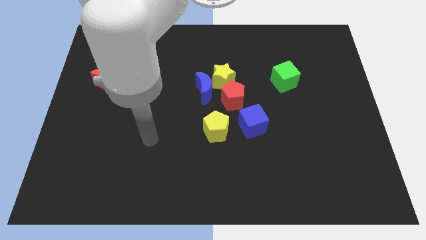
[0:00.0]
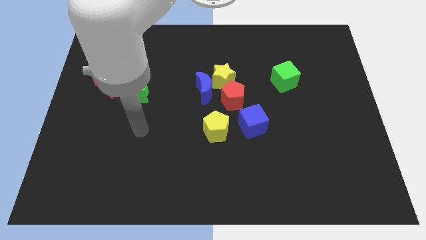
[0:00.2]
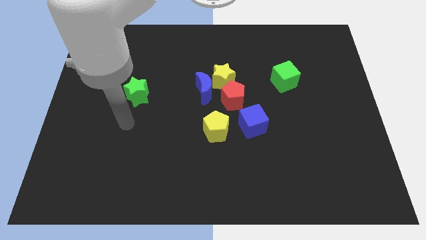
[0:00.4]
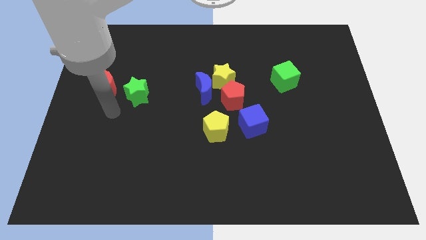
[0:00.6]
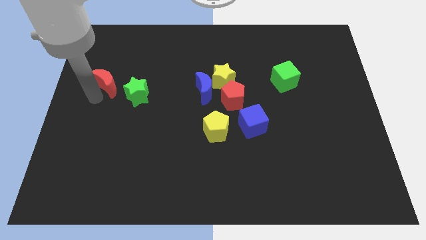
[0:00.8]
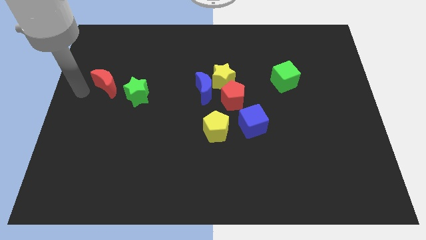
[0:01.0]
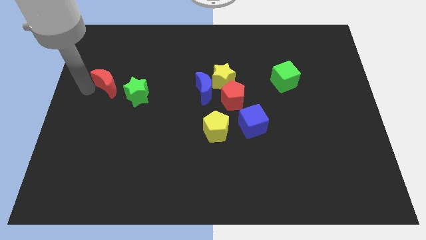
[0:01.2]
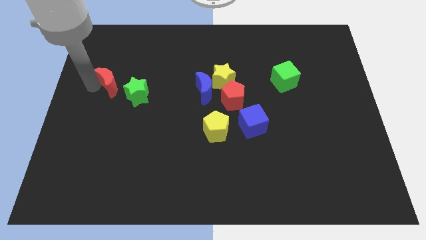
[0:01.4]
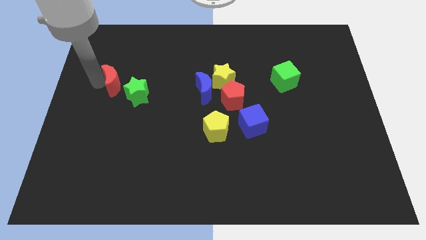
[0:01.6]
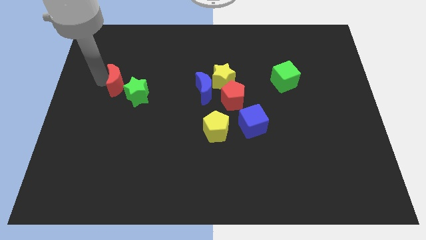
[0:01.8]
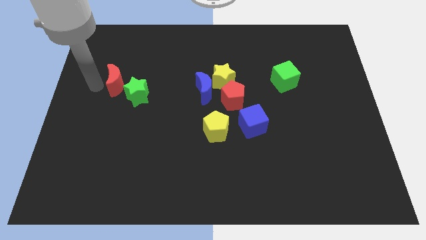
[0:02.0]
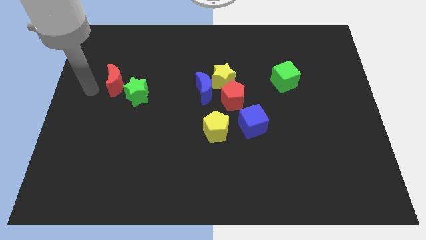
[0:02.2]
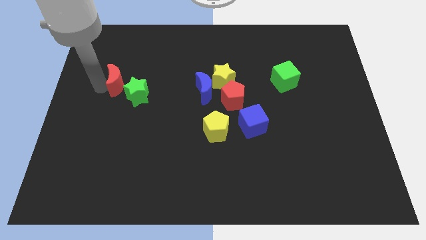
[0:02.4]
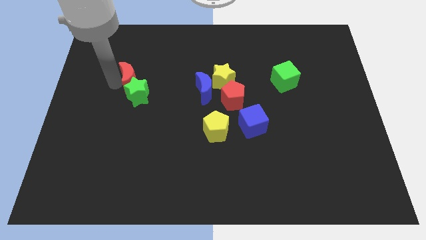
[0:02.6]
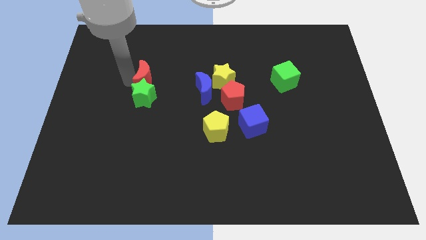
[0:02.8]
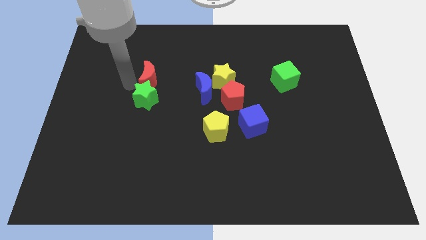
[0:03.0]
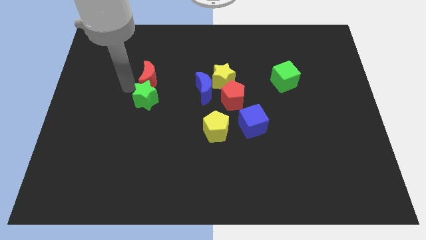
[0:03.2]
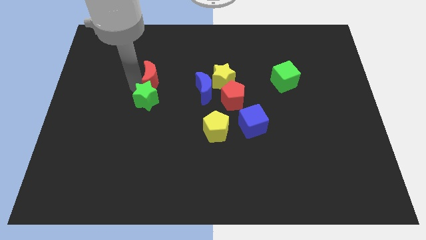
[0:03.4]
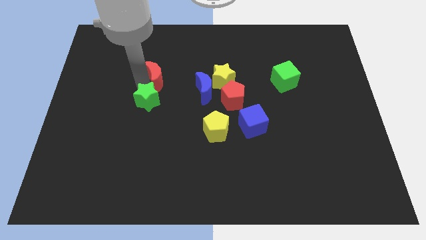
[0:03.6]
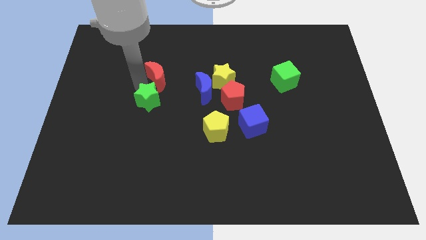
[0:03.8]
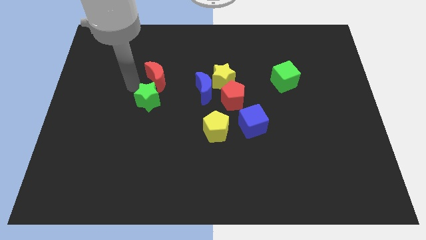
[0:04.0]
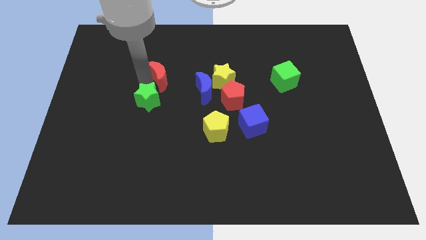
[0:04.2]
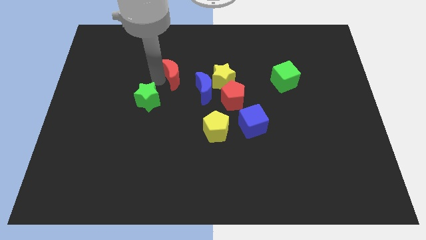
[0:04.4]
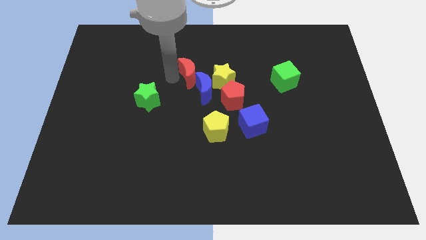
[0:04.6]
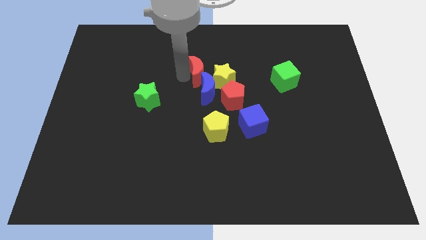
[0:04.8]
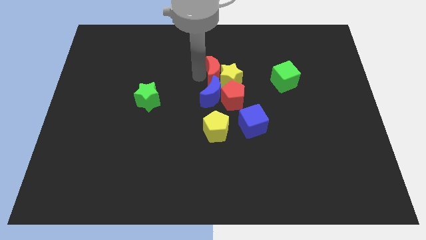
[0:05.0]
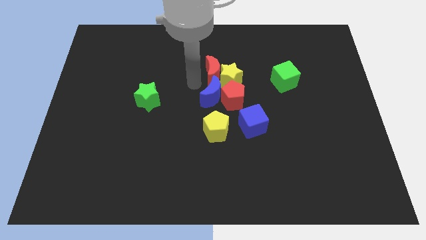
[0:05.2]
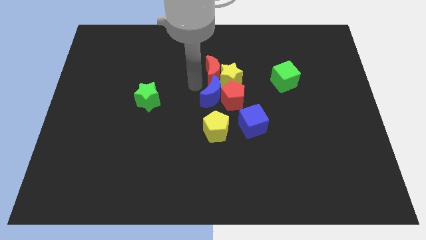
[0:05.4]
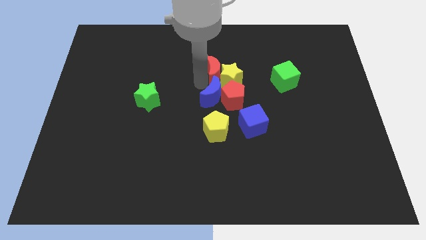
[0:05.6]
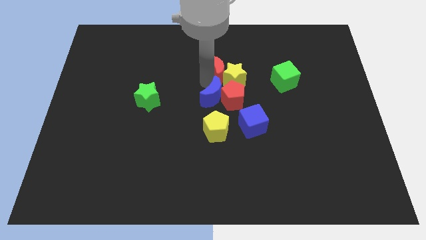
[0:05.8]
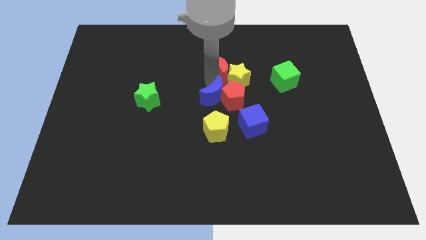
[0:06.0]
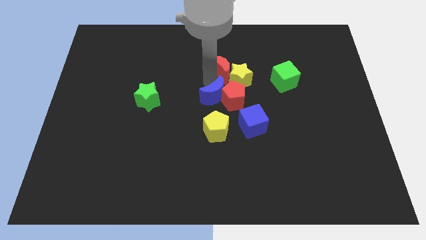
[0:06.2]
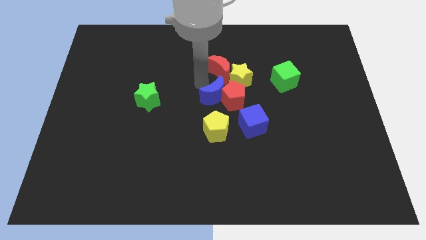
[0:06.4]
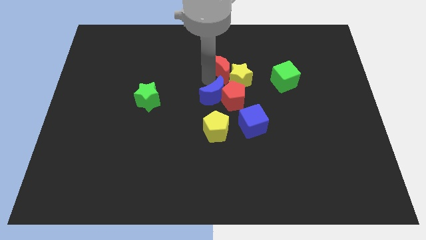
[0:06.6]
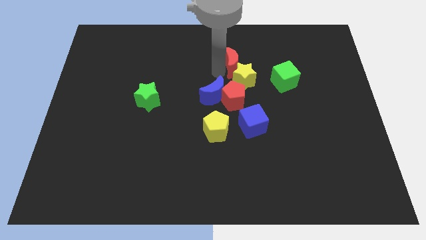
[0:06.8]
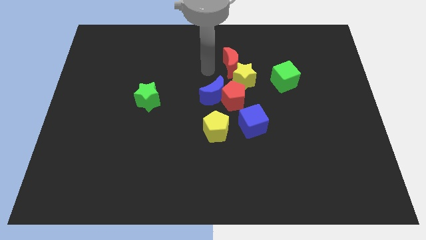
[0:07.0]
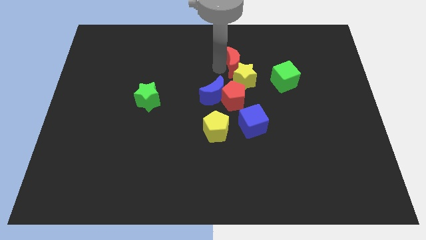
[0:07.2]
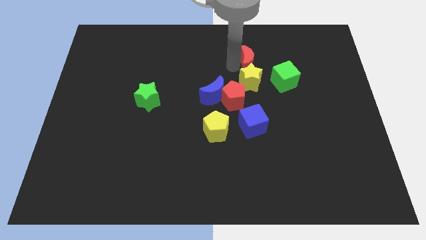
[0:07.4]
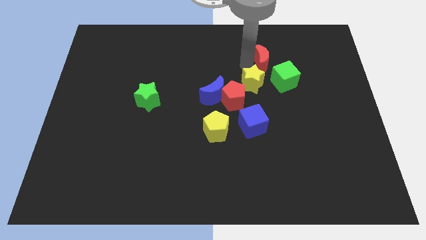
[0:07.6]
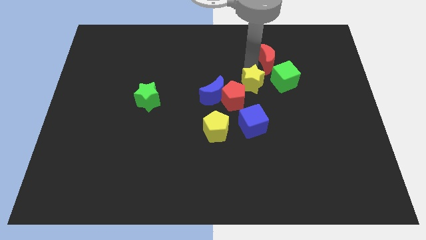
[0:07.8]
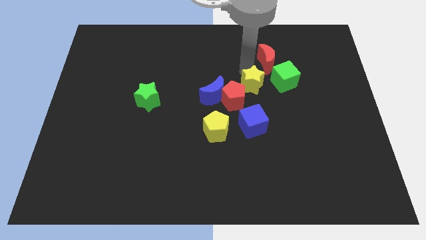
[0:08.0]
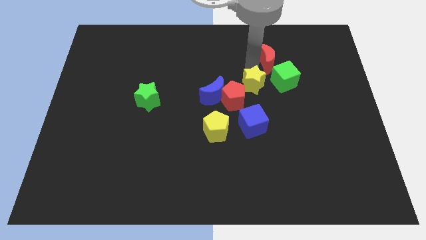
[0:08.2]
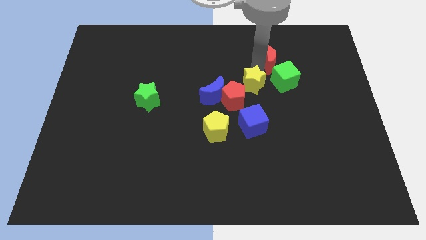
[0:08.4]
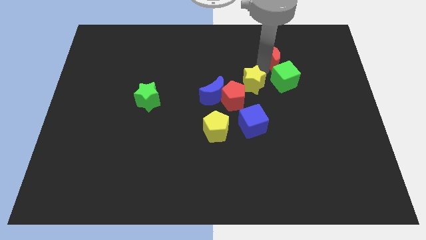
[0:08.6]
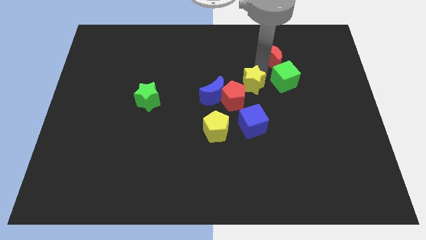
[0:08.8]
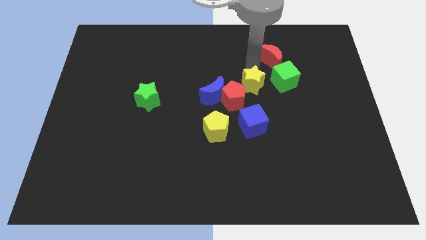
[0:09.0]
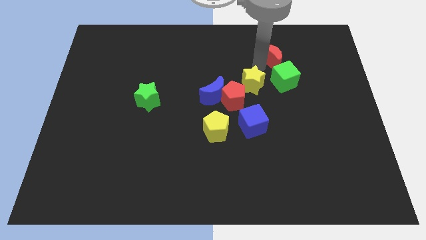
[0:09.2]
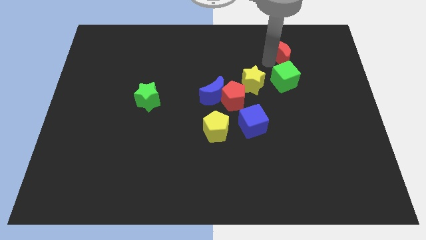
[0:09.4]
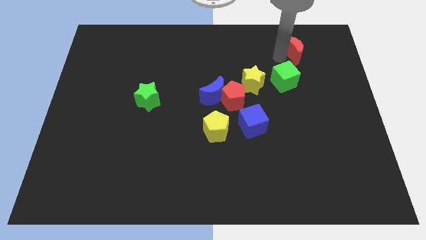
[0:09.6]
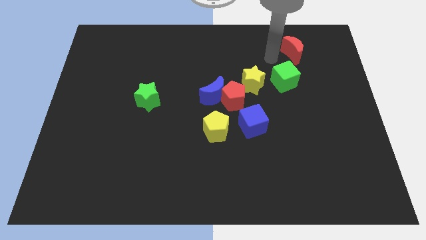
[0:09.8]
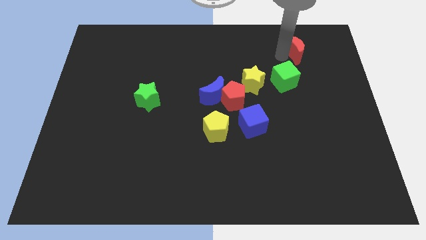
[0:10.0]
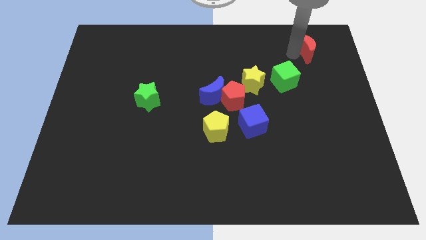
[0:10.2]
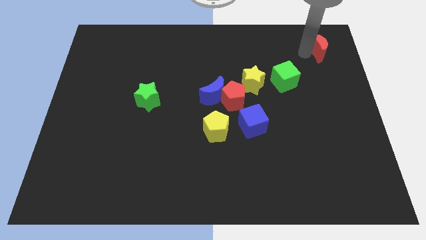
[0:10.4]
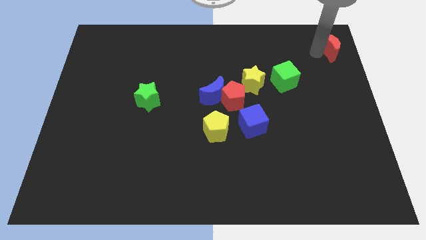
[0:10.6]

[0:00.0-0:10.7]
put the red moon to the upper right corner
